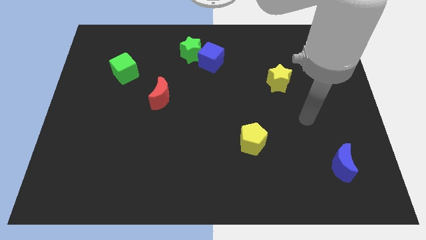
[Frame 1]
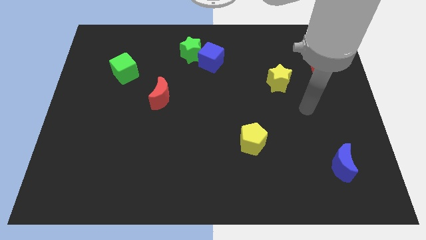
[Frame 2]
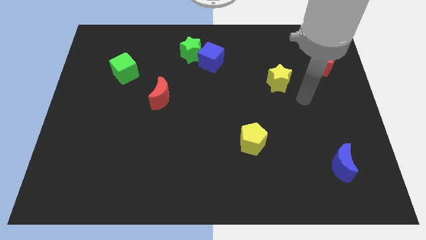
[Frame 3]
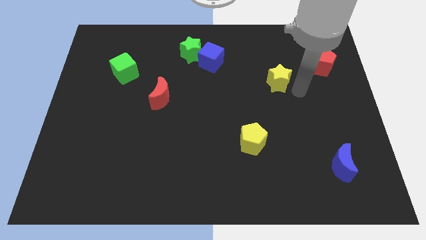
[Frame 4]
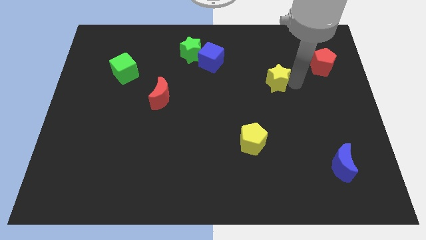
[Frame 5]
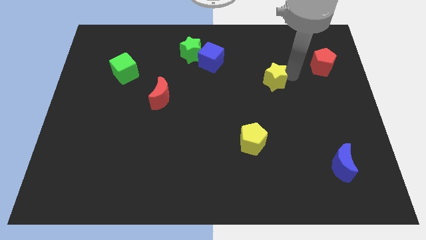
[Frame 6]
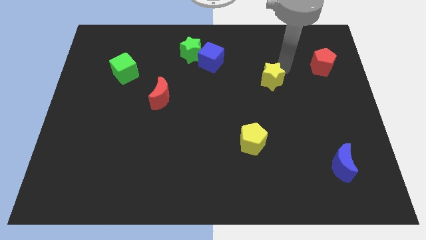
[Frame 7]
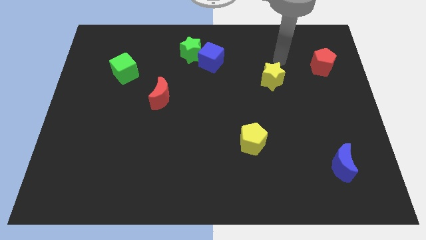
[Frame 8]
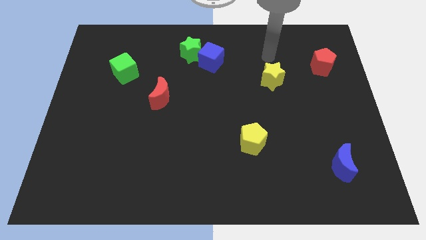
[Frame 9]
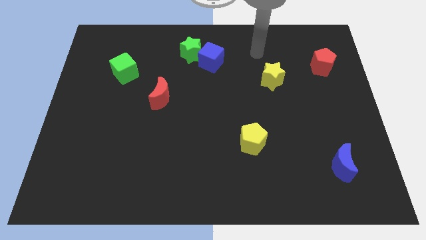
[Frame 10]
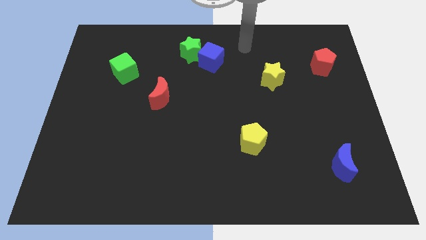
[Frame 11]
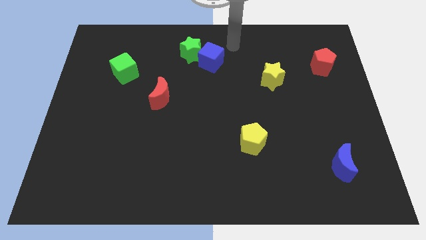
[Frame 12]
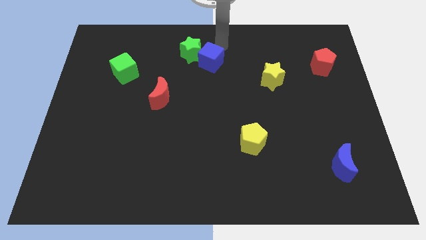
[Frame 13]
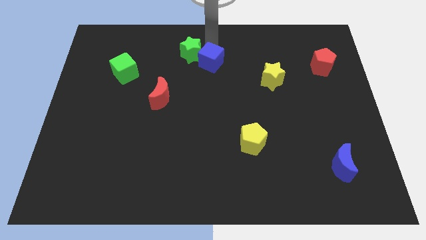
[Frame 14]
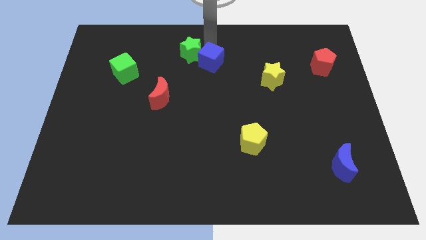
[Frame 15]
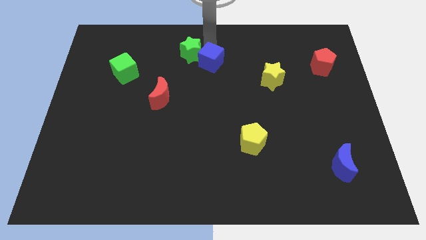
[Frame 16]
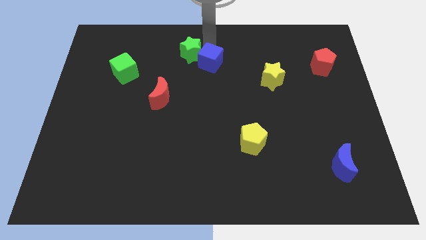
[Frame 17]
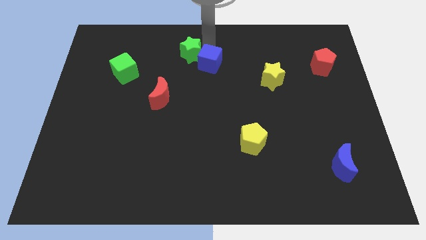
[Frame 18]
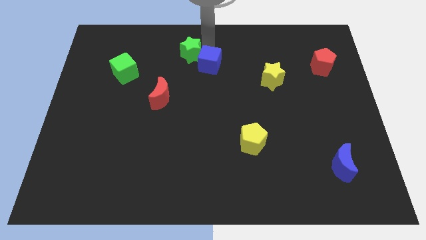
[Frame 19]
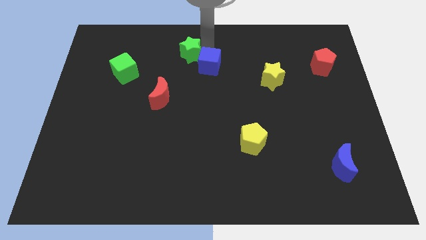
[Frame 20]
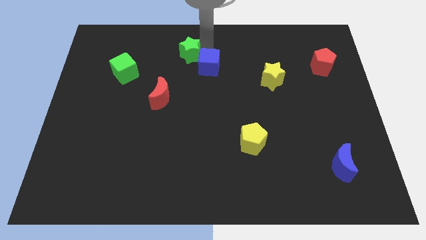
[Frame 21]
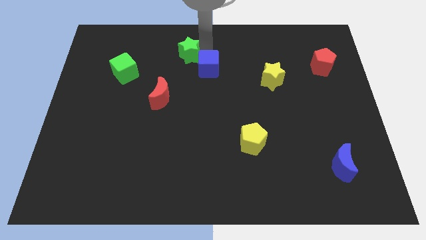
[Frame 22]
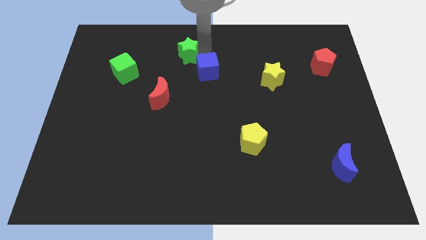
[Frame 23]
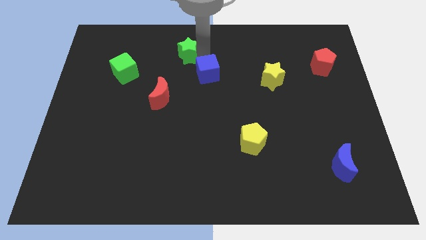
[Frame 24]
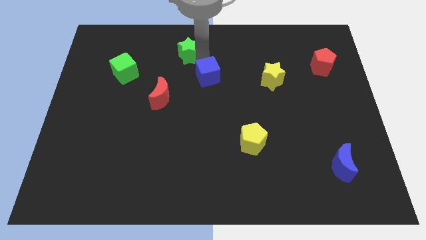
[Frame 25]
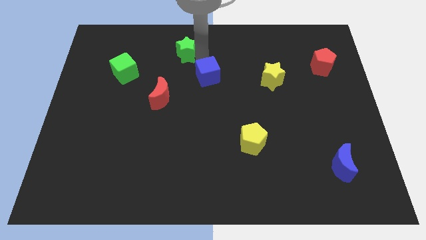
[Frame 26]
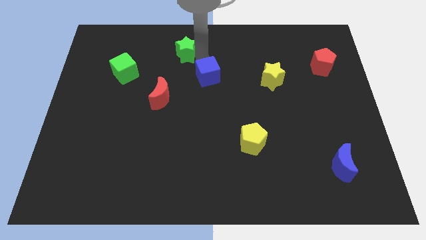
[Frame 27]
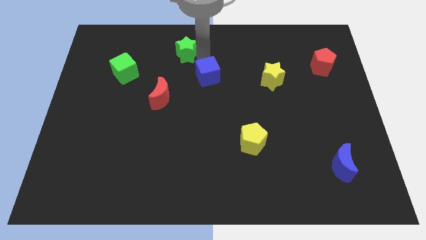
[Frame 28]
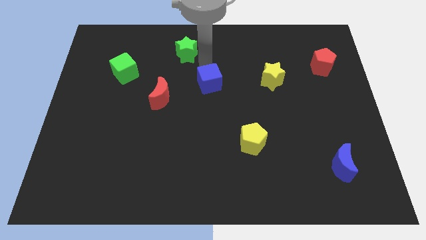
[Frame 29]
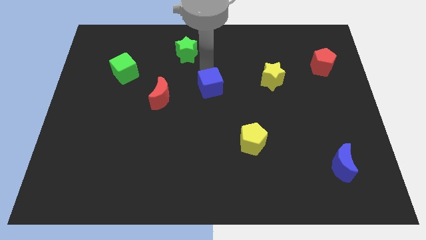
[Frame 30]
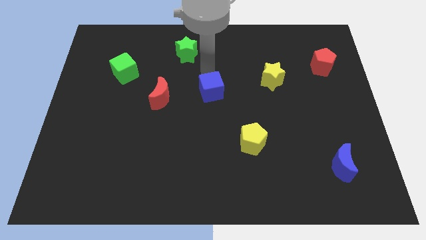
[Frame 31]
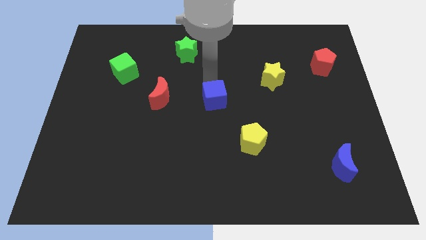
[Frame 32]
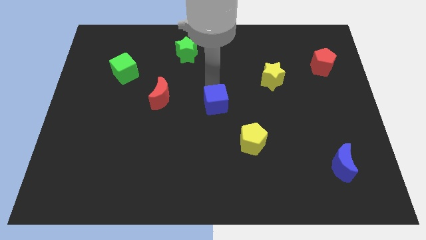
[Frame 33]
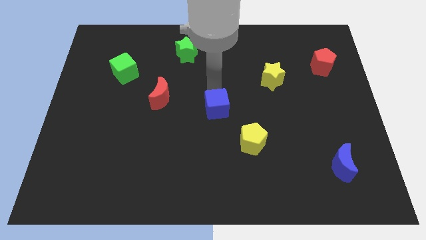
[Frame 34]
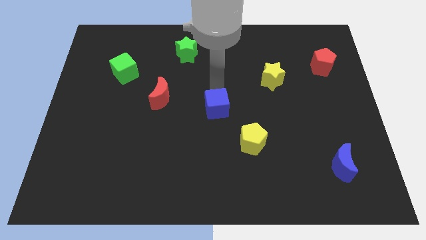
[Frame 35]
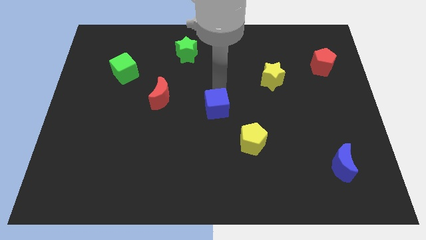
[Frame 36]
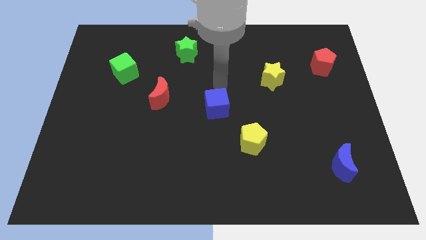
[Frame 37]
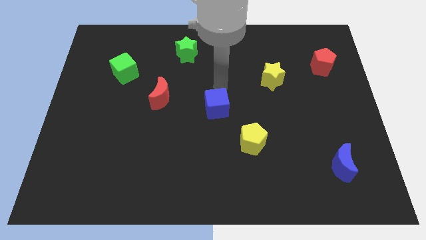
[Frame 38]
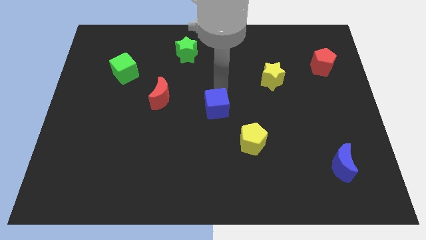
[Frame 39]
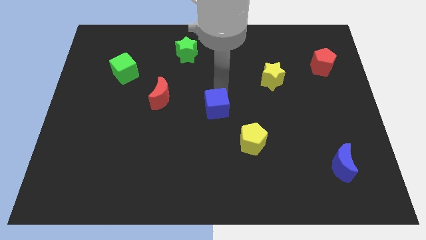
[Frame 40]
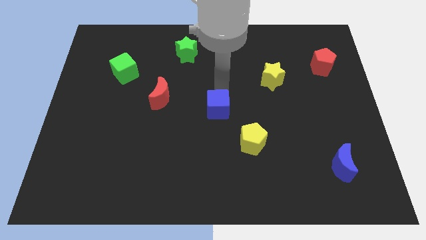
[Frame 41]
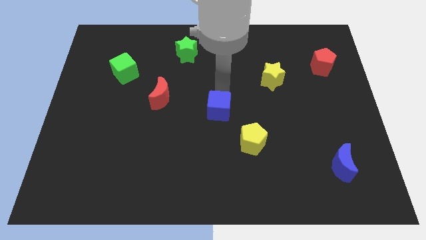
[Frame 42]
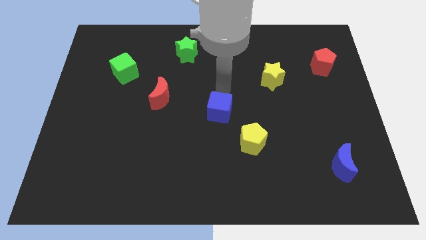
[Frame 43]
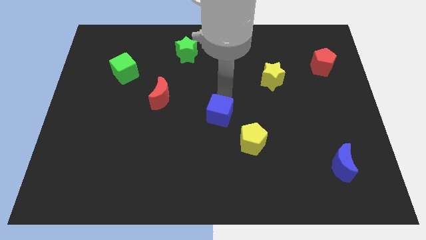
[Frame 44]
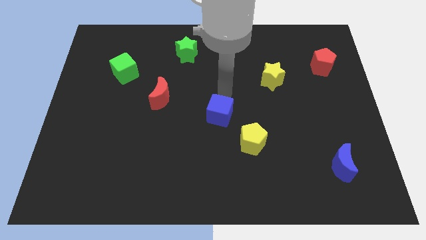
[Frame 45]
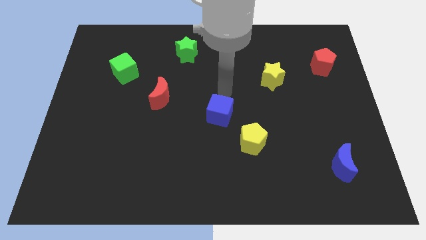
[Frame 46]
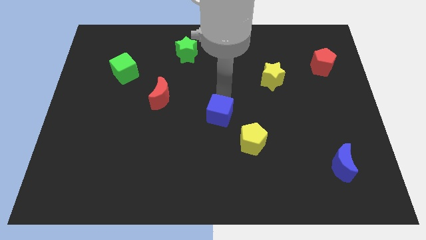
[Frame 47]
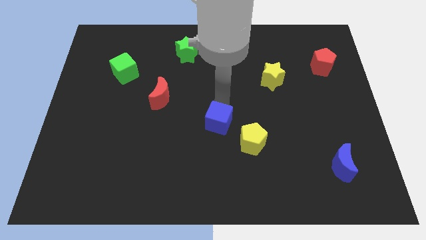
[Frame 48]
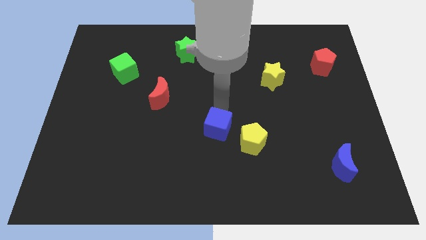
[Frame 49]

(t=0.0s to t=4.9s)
slide the blue cube downwards

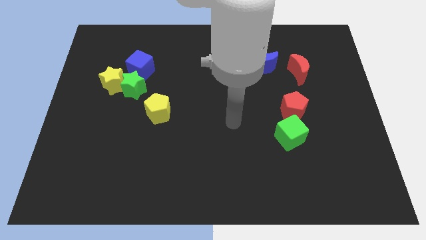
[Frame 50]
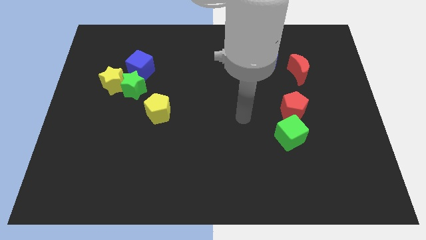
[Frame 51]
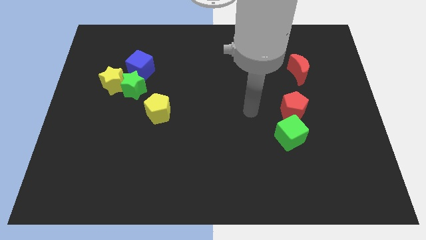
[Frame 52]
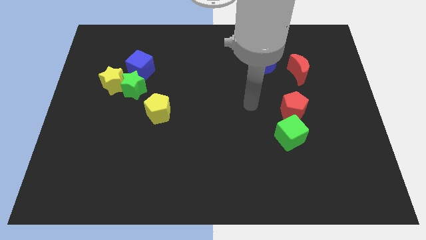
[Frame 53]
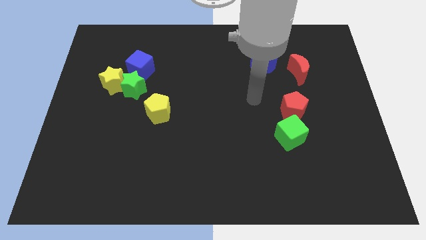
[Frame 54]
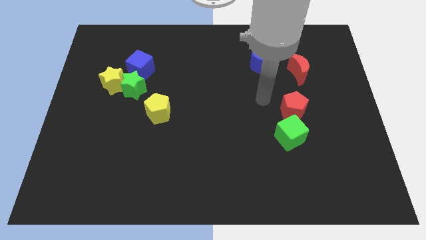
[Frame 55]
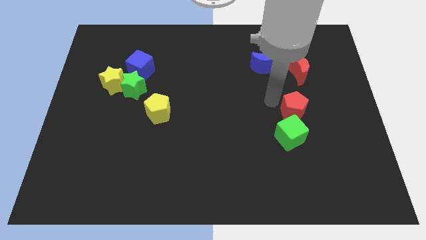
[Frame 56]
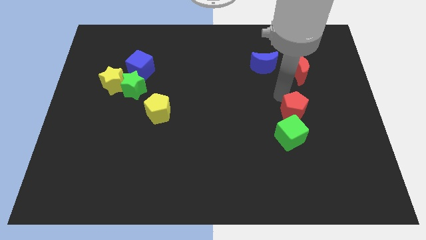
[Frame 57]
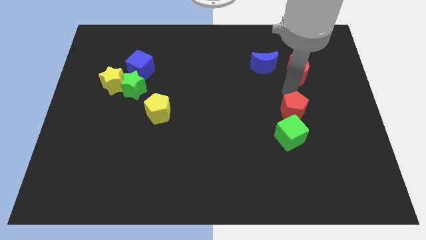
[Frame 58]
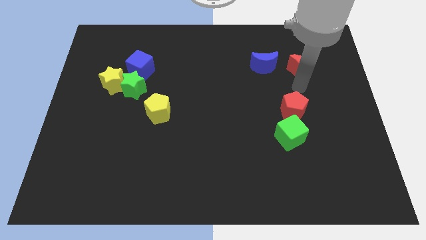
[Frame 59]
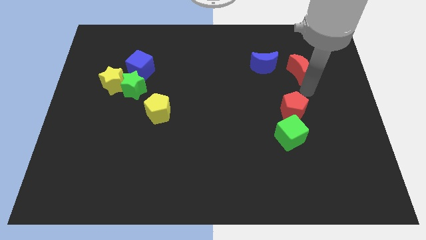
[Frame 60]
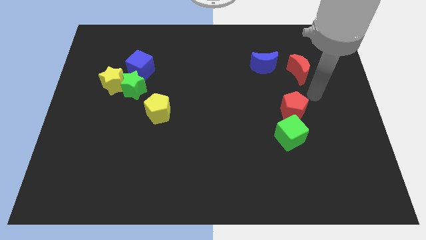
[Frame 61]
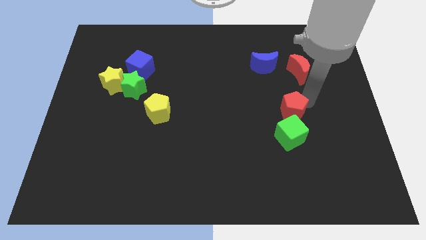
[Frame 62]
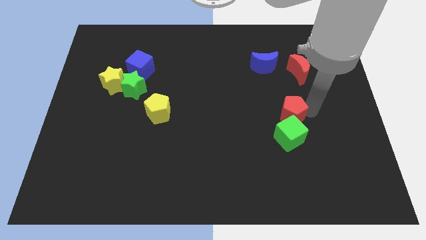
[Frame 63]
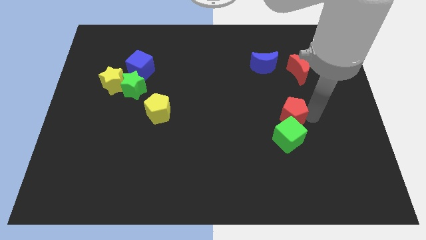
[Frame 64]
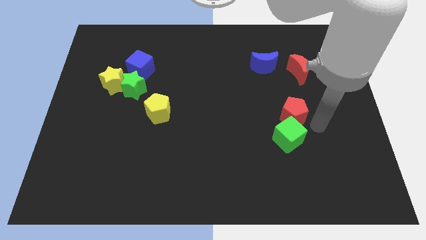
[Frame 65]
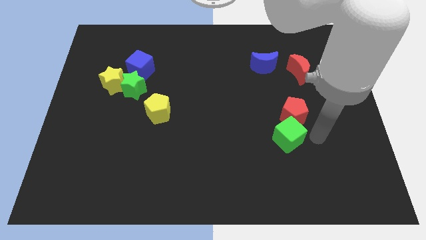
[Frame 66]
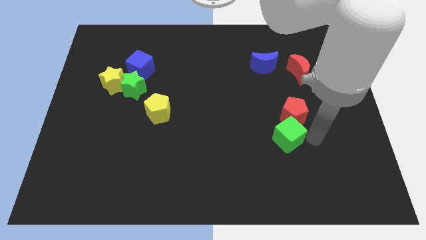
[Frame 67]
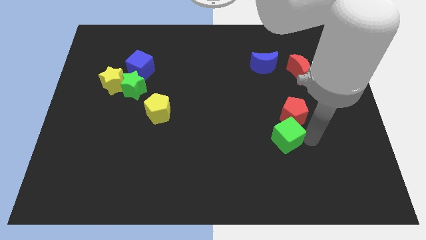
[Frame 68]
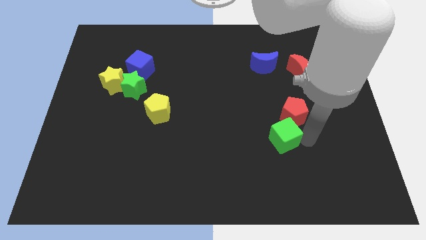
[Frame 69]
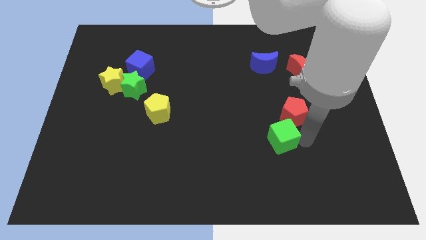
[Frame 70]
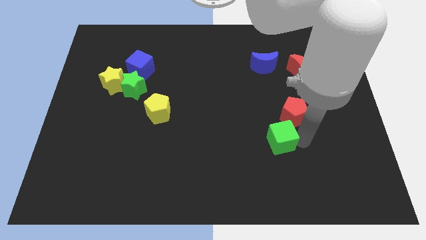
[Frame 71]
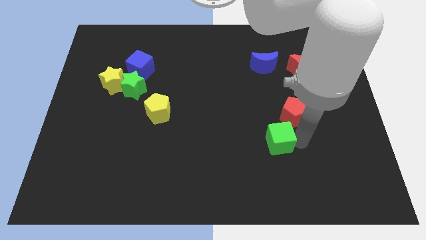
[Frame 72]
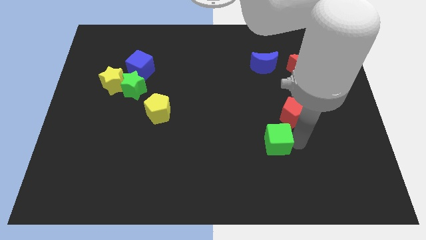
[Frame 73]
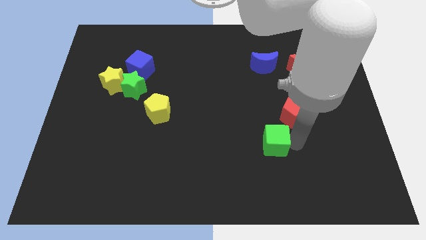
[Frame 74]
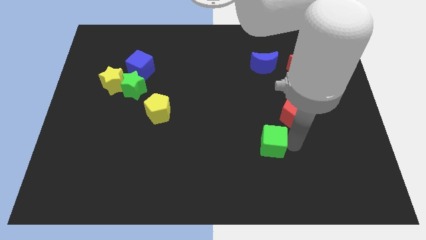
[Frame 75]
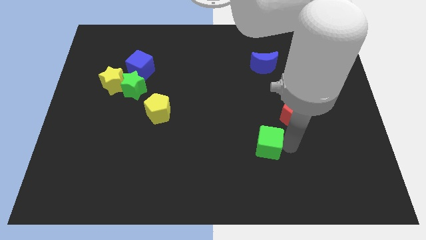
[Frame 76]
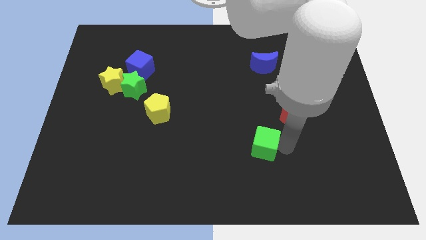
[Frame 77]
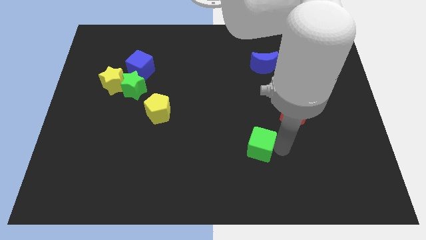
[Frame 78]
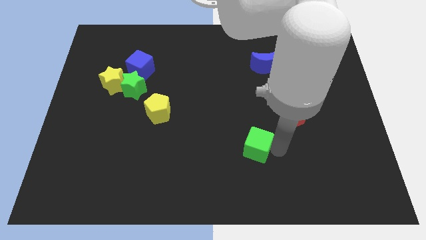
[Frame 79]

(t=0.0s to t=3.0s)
slightly slide the green cube to the left

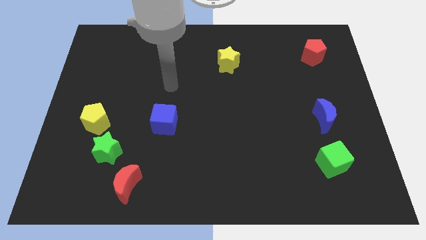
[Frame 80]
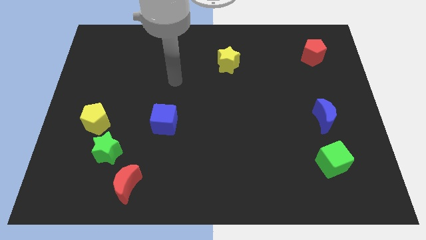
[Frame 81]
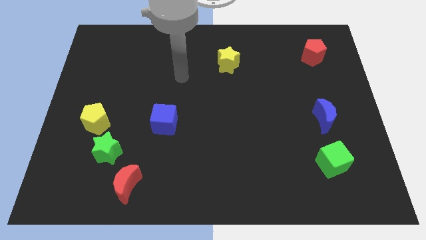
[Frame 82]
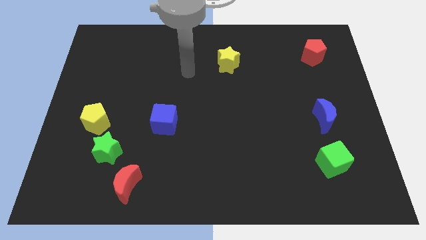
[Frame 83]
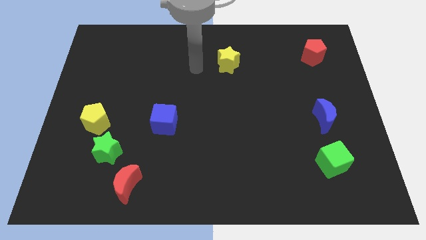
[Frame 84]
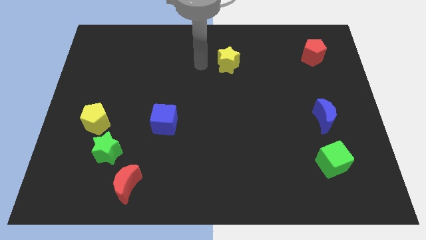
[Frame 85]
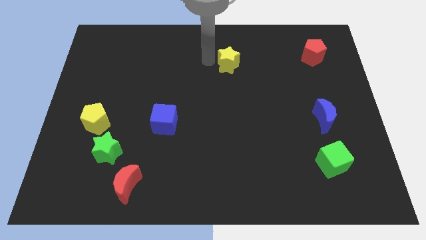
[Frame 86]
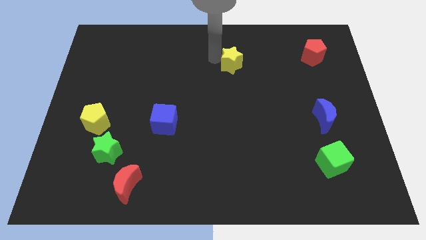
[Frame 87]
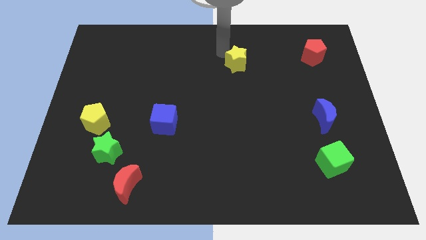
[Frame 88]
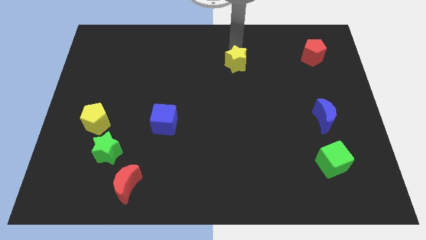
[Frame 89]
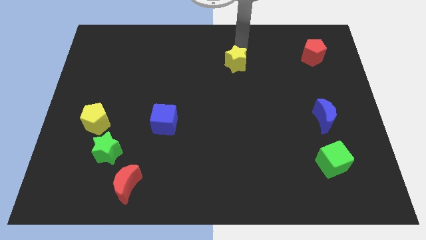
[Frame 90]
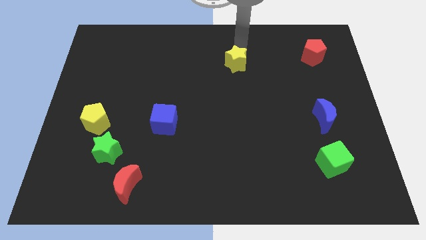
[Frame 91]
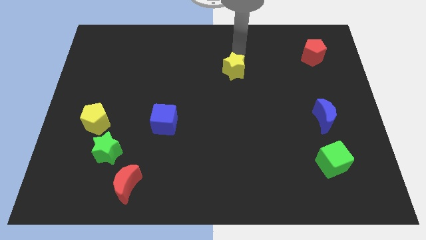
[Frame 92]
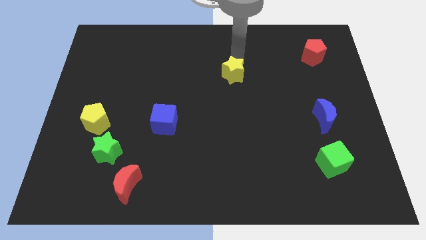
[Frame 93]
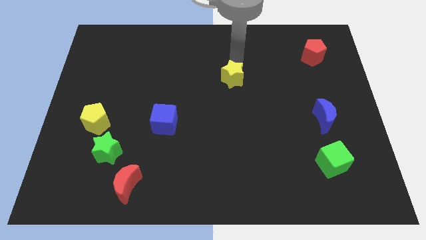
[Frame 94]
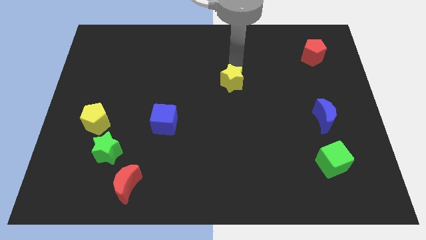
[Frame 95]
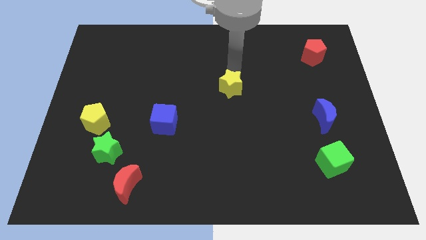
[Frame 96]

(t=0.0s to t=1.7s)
slide the yellow star somewhat down
